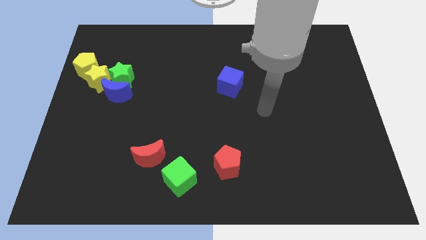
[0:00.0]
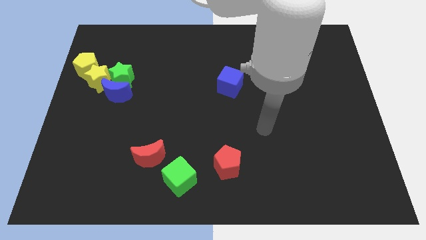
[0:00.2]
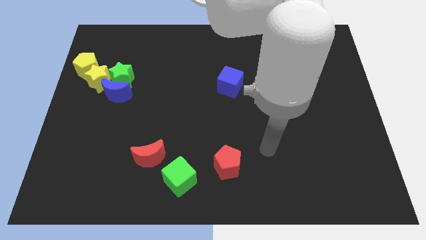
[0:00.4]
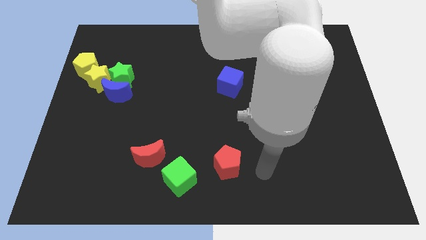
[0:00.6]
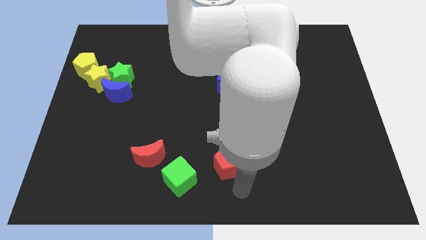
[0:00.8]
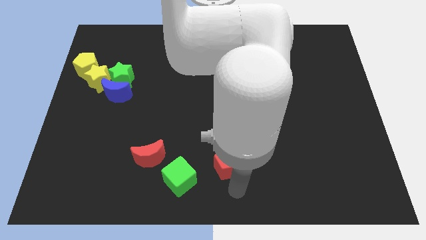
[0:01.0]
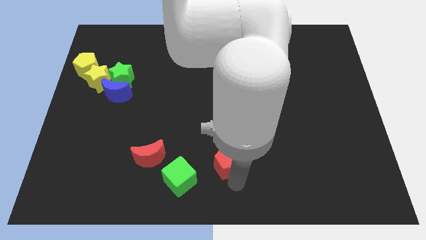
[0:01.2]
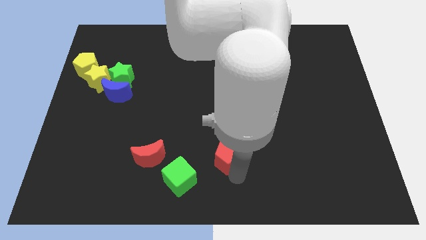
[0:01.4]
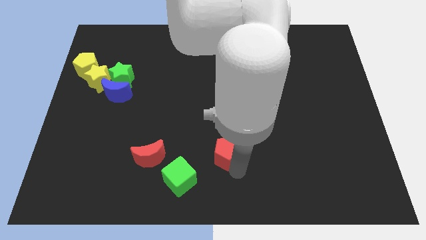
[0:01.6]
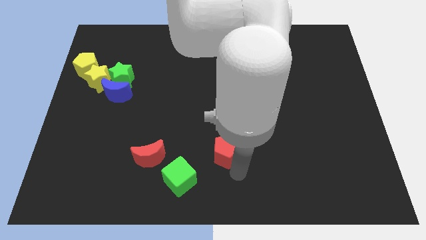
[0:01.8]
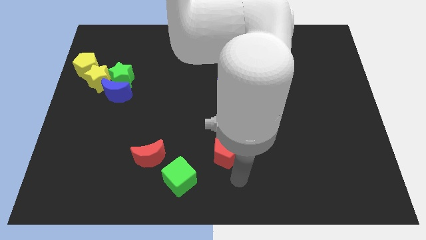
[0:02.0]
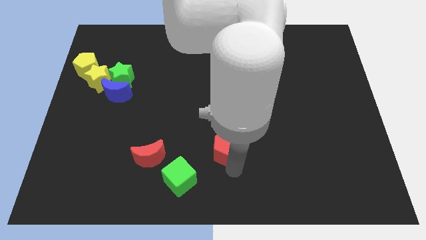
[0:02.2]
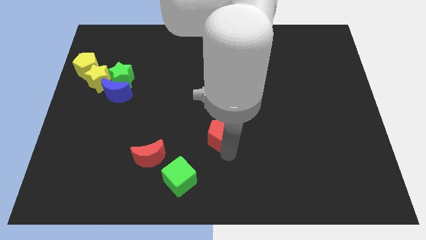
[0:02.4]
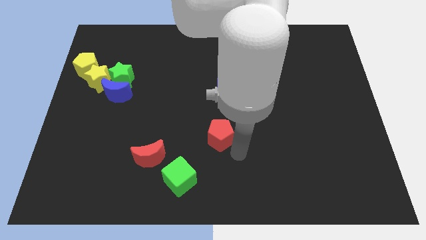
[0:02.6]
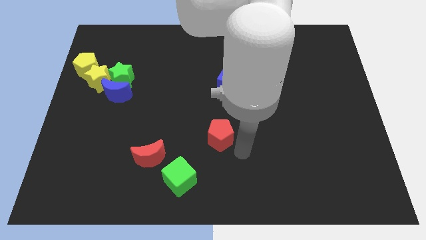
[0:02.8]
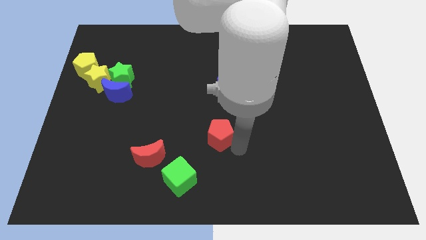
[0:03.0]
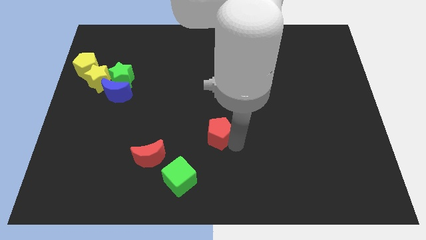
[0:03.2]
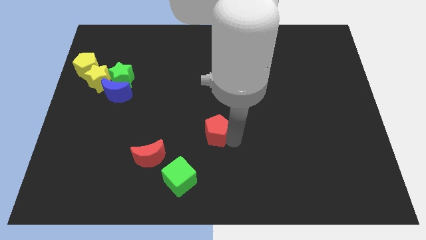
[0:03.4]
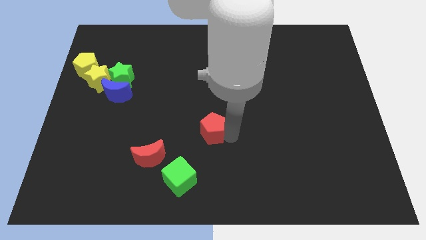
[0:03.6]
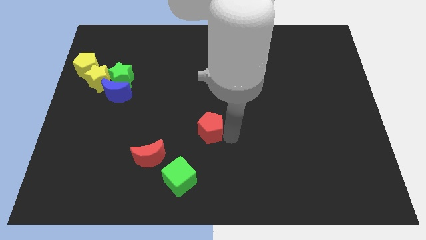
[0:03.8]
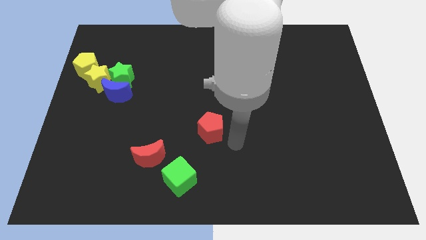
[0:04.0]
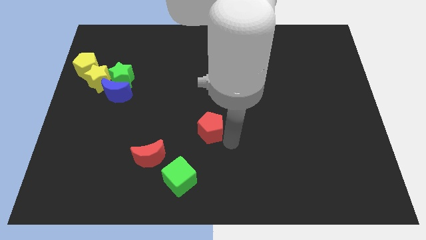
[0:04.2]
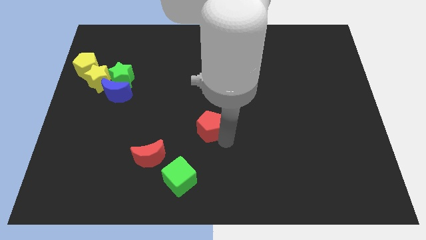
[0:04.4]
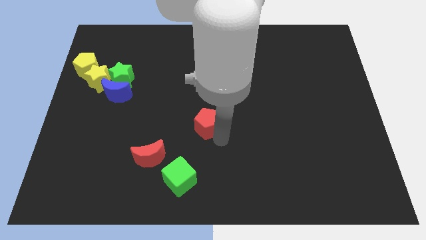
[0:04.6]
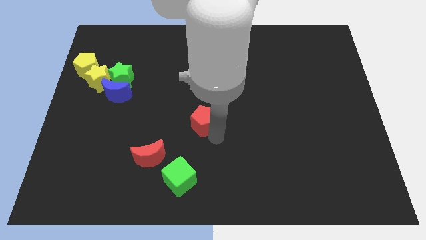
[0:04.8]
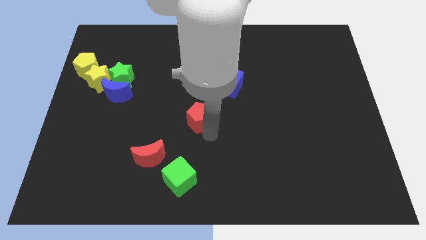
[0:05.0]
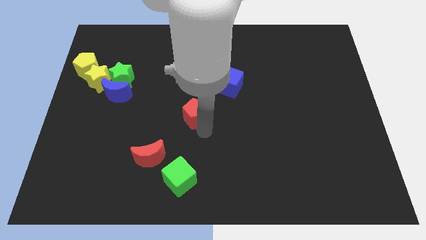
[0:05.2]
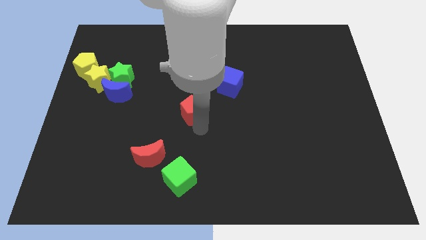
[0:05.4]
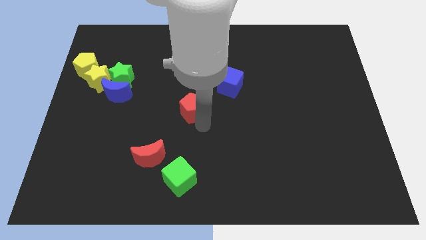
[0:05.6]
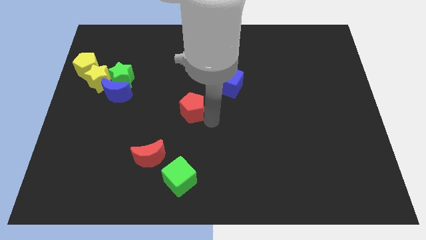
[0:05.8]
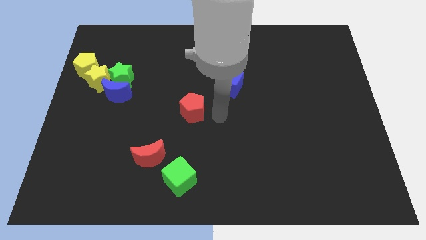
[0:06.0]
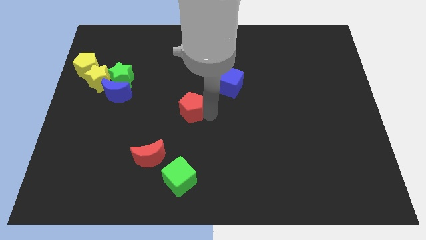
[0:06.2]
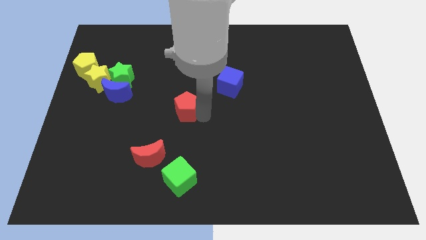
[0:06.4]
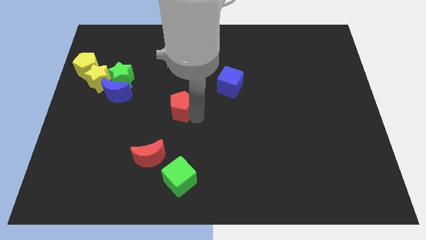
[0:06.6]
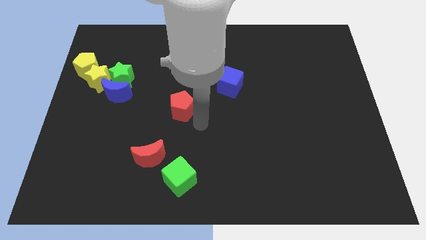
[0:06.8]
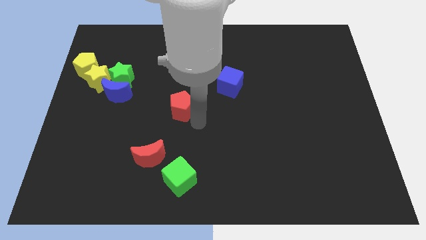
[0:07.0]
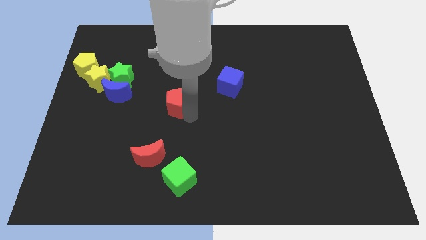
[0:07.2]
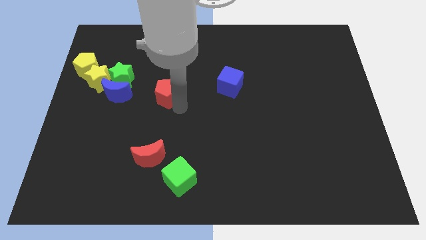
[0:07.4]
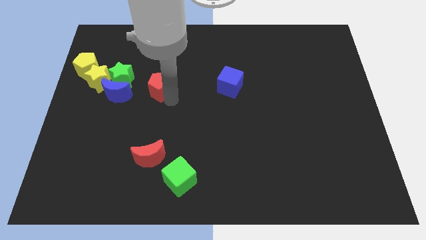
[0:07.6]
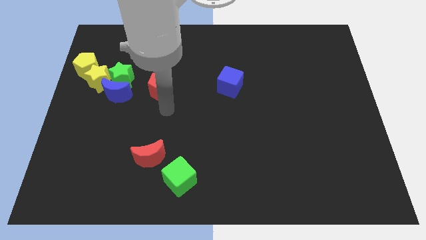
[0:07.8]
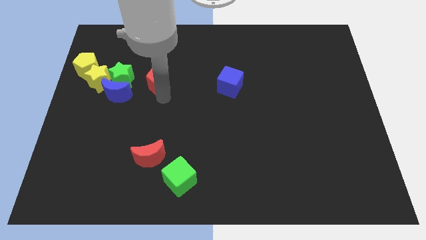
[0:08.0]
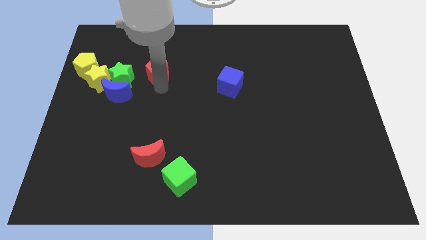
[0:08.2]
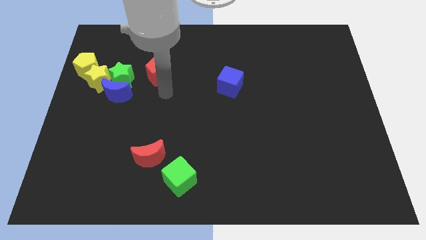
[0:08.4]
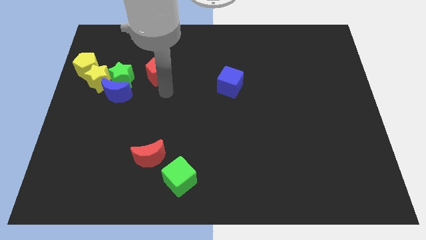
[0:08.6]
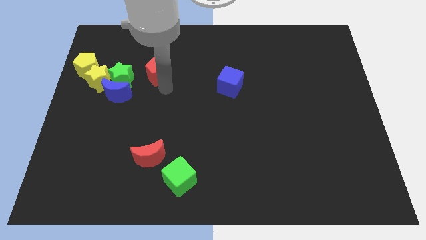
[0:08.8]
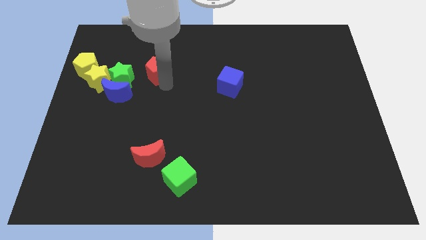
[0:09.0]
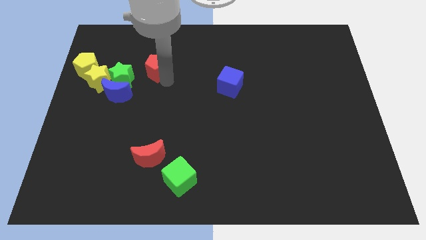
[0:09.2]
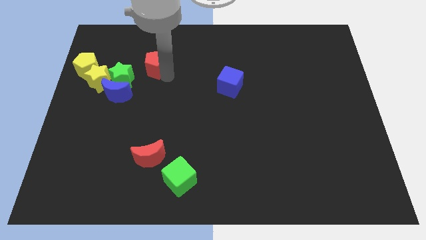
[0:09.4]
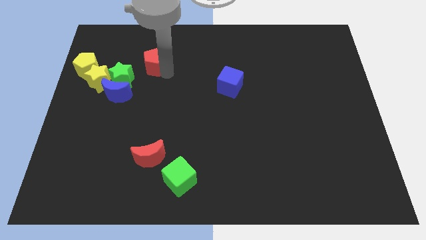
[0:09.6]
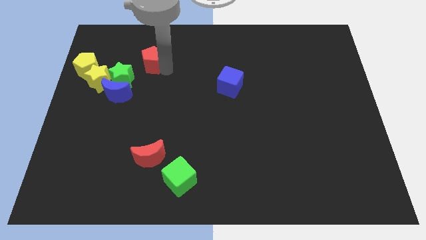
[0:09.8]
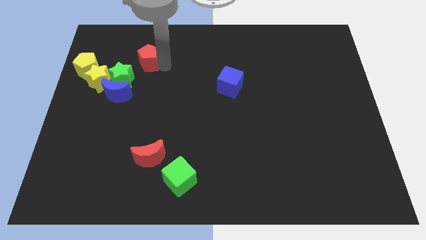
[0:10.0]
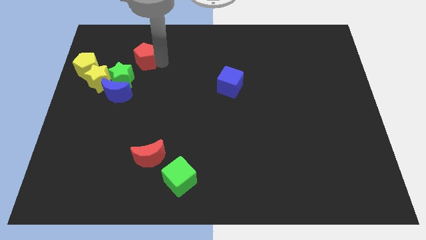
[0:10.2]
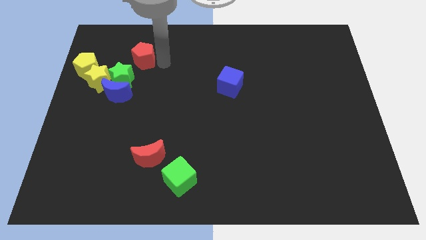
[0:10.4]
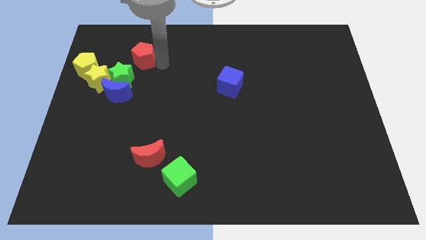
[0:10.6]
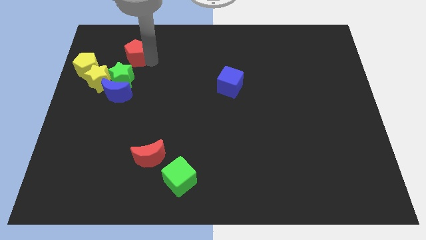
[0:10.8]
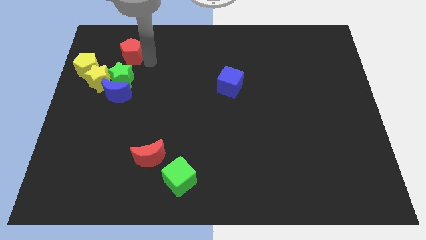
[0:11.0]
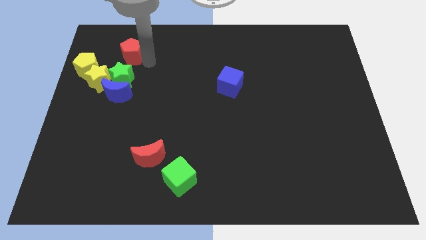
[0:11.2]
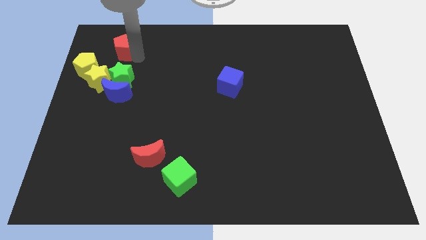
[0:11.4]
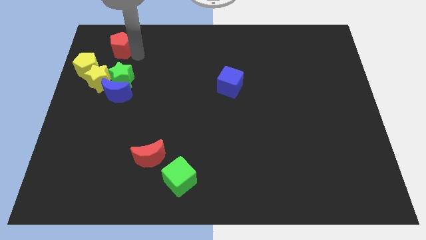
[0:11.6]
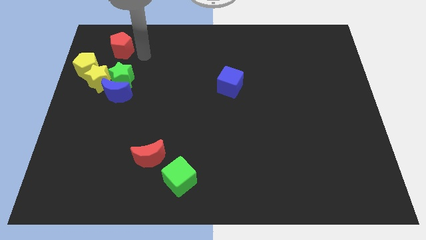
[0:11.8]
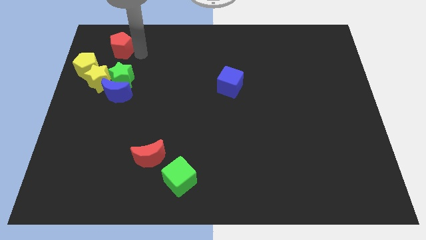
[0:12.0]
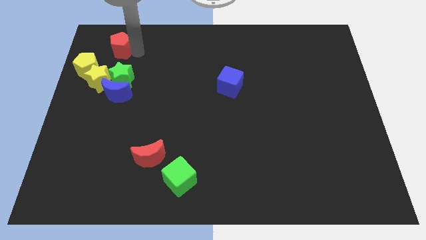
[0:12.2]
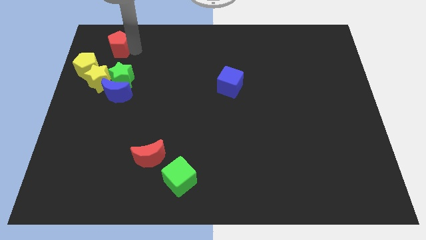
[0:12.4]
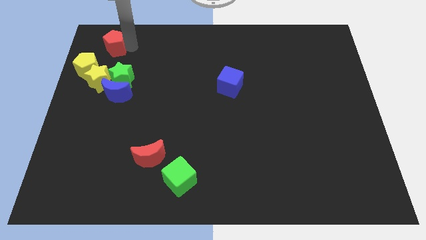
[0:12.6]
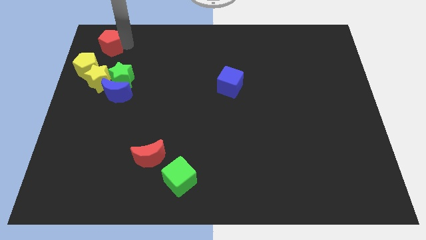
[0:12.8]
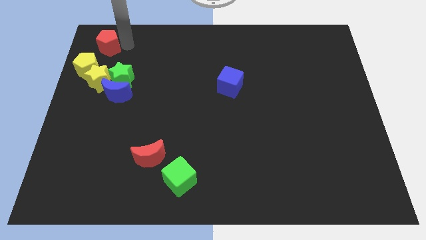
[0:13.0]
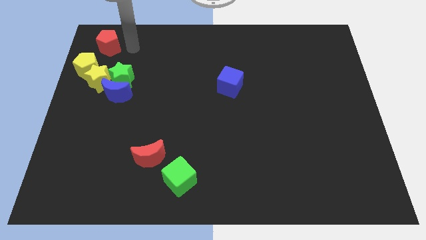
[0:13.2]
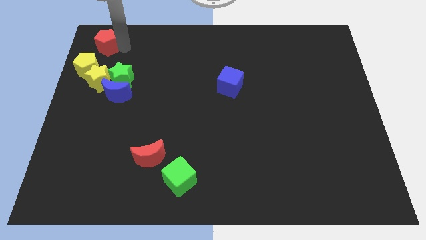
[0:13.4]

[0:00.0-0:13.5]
move the red pentagon to the top left corner
